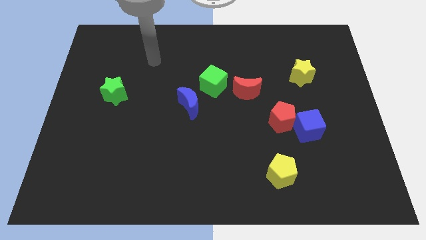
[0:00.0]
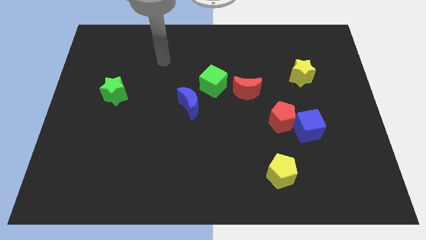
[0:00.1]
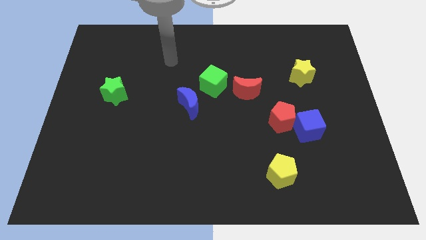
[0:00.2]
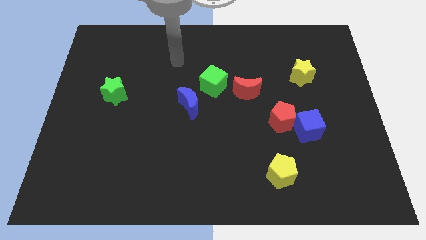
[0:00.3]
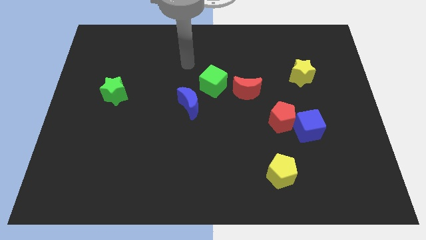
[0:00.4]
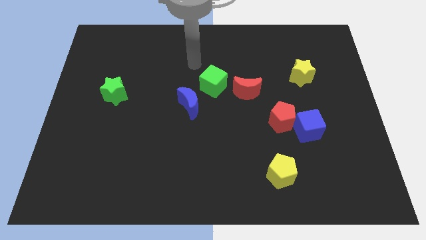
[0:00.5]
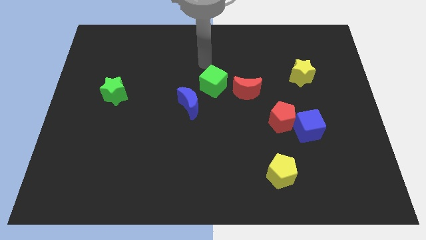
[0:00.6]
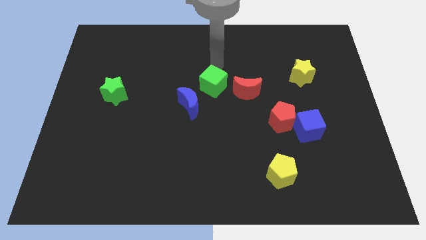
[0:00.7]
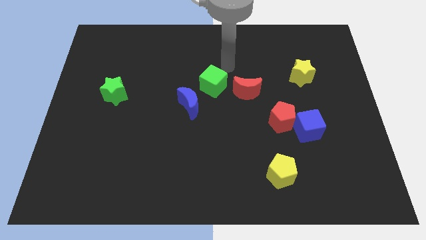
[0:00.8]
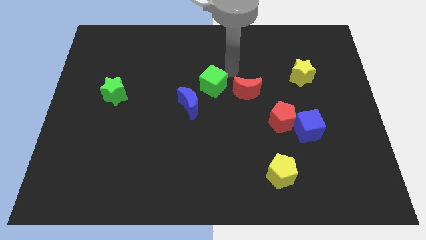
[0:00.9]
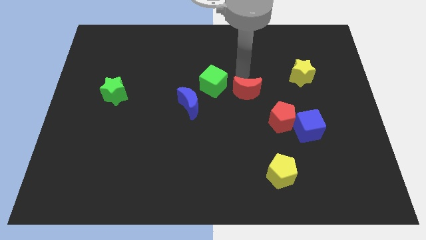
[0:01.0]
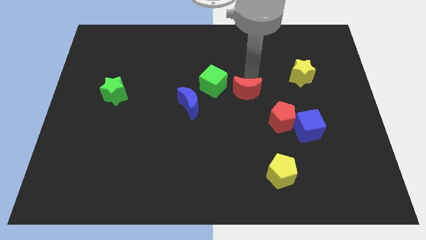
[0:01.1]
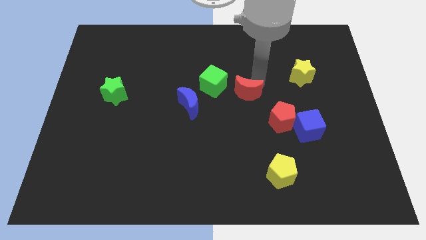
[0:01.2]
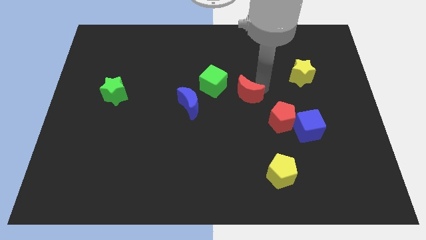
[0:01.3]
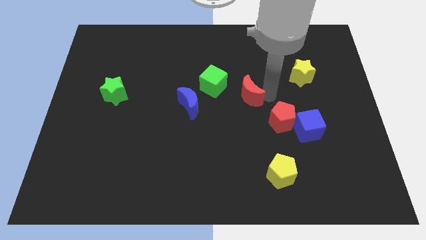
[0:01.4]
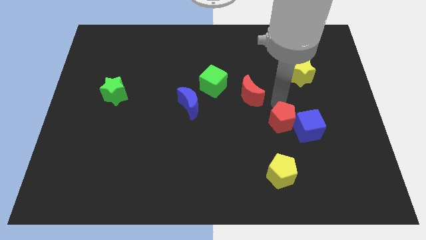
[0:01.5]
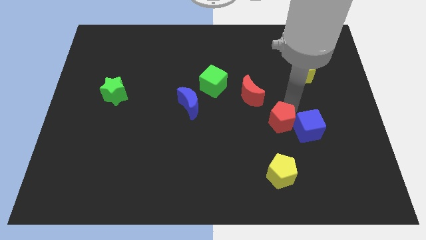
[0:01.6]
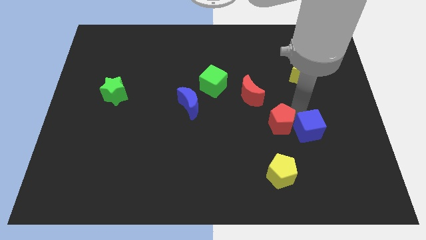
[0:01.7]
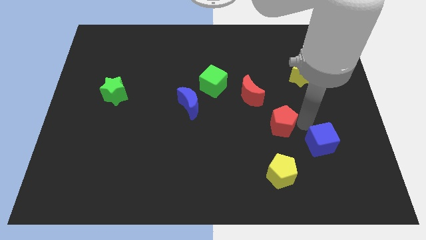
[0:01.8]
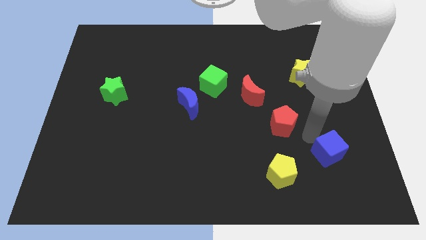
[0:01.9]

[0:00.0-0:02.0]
move the red pentagon away from the blue cube

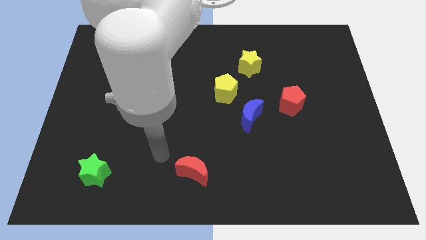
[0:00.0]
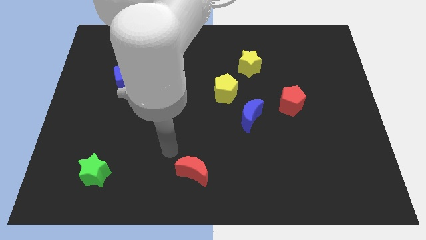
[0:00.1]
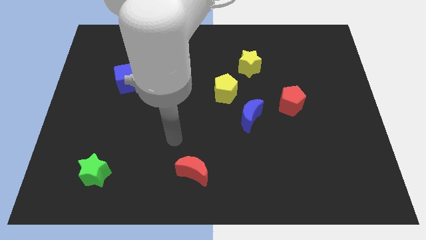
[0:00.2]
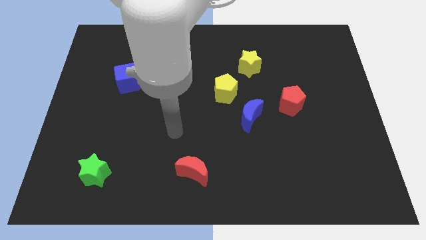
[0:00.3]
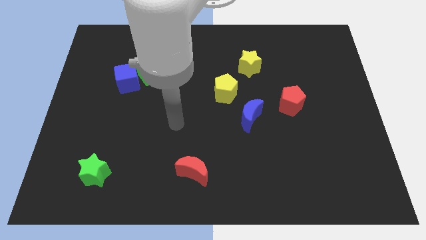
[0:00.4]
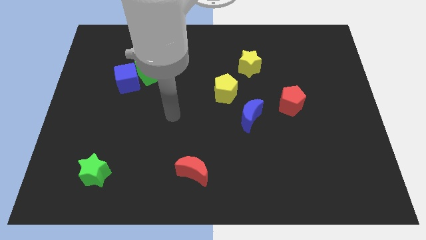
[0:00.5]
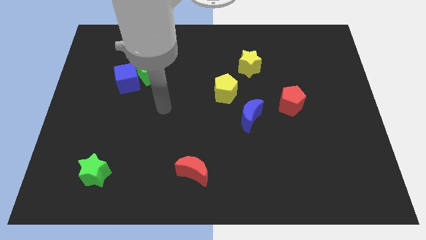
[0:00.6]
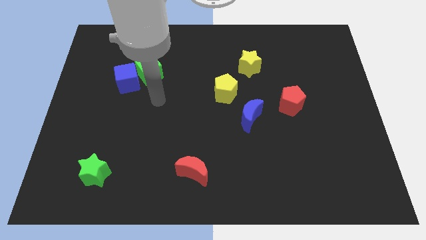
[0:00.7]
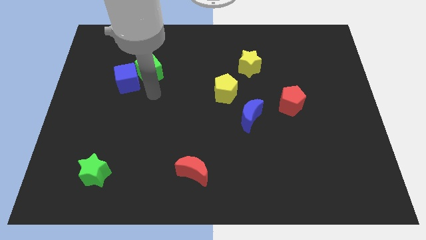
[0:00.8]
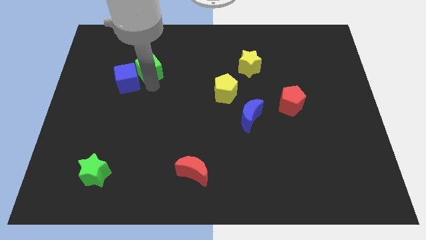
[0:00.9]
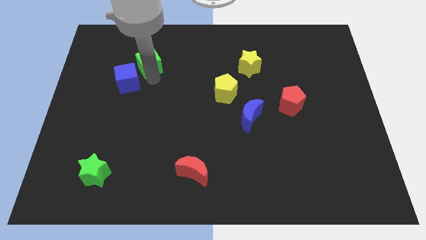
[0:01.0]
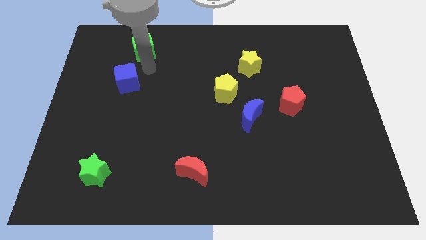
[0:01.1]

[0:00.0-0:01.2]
separate the blue cube from the green cube

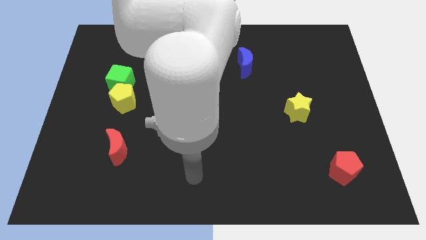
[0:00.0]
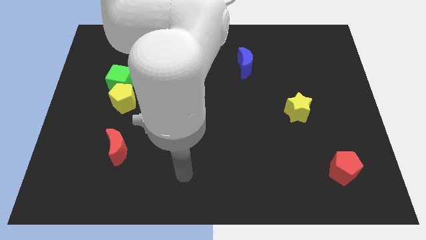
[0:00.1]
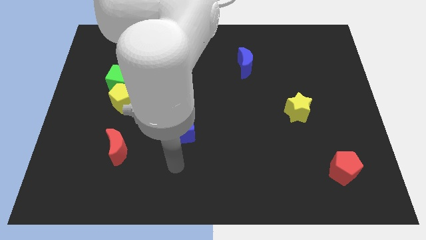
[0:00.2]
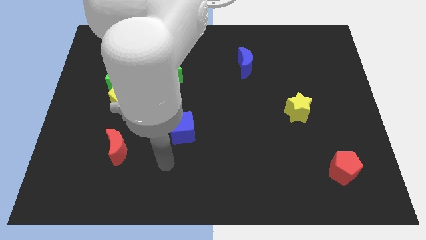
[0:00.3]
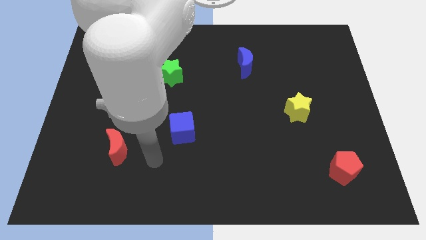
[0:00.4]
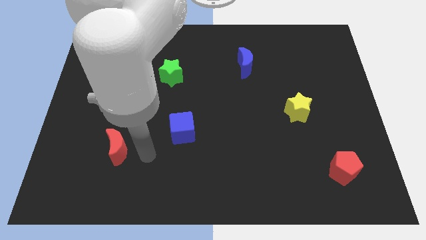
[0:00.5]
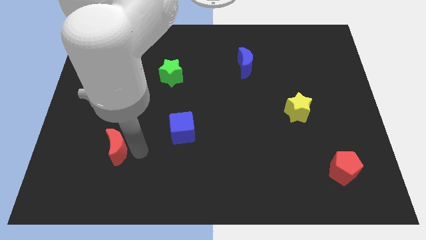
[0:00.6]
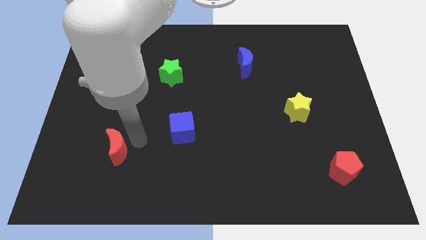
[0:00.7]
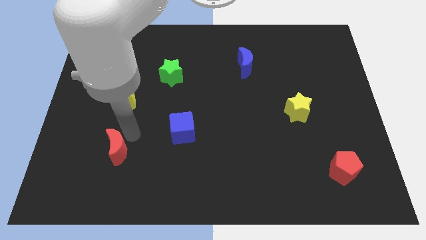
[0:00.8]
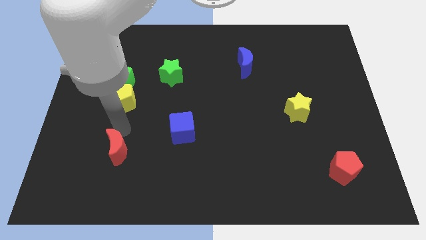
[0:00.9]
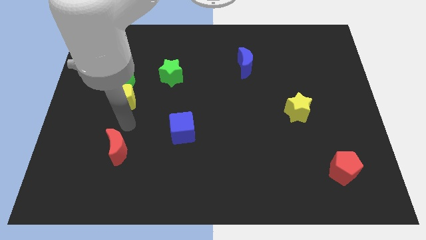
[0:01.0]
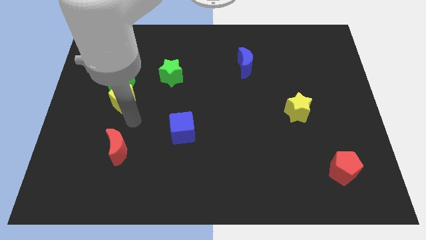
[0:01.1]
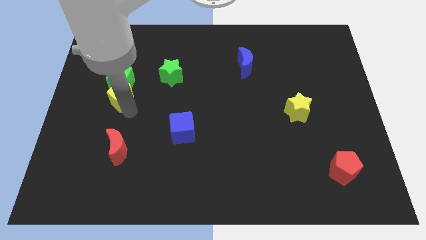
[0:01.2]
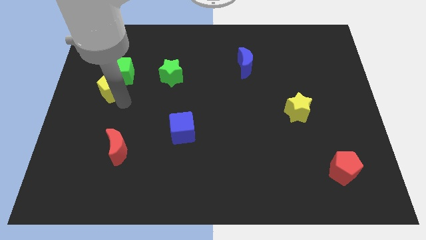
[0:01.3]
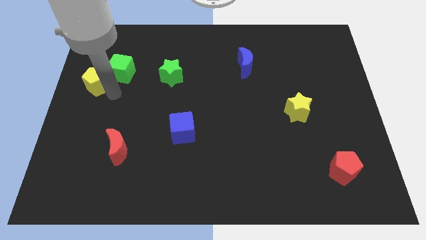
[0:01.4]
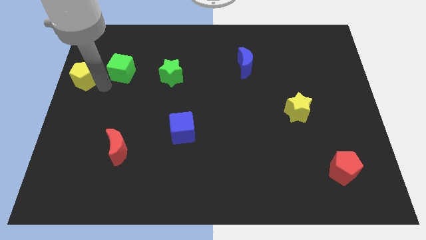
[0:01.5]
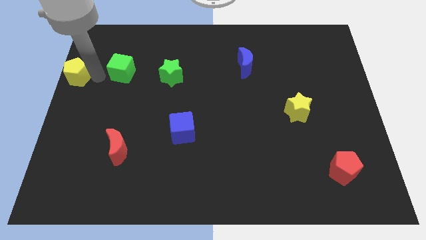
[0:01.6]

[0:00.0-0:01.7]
move the green cube away from the yellow pentagon

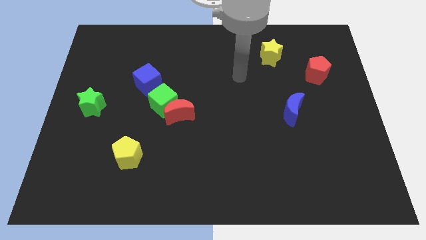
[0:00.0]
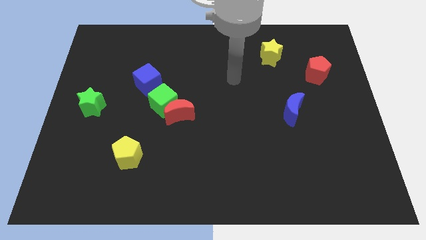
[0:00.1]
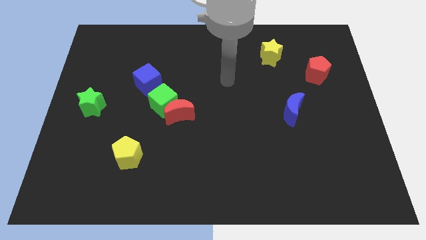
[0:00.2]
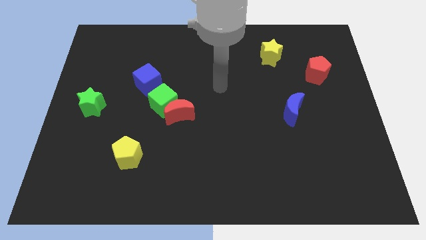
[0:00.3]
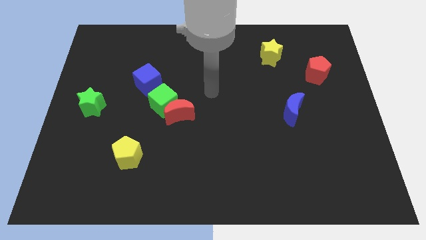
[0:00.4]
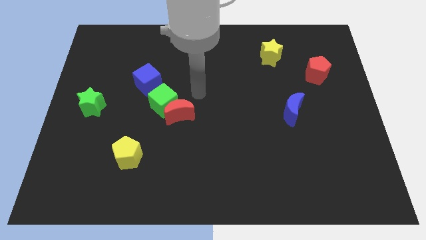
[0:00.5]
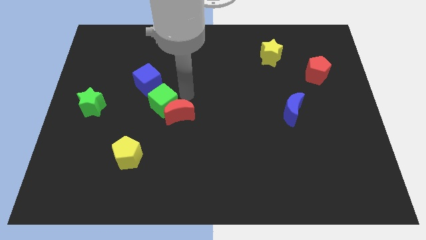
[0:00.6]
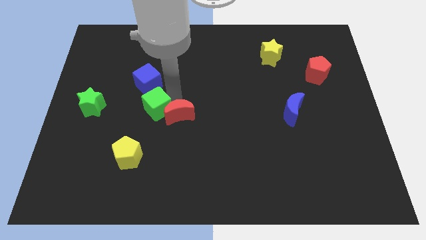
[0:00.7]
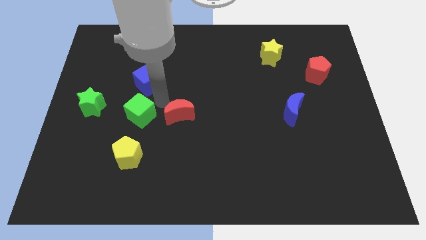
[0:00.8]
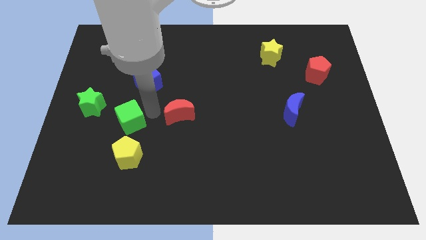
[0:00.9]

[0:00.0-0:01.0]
pull the red moon apart from the green cube

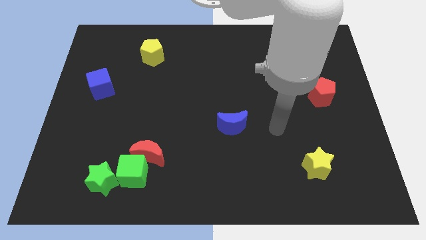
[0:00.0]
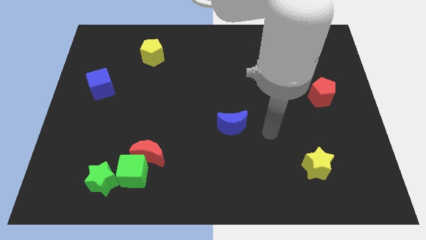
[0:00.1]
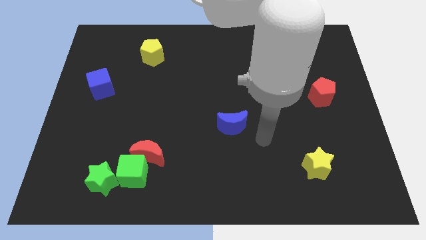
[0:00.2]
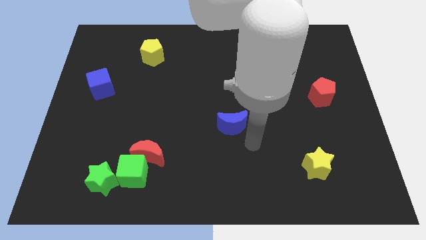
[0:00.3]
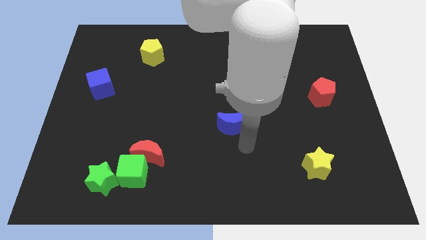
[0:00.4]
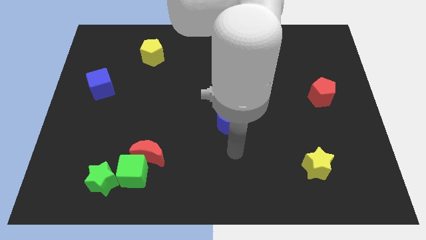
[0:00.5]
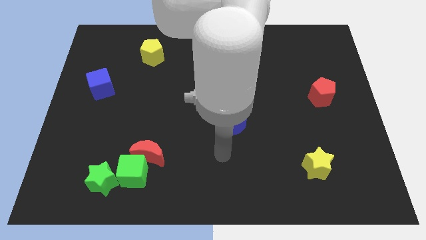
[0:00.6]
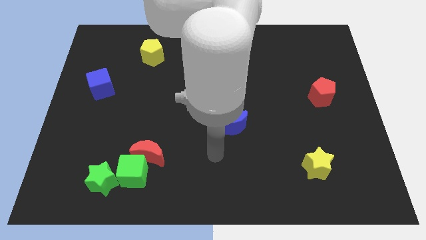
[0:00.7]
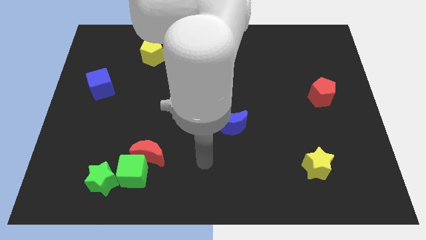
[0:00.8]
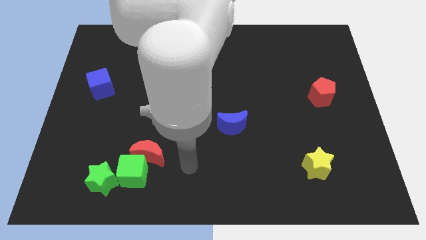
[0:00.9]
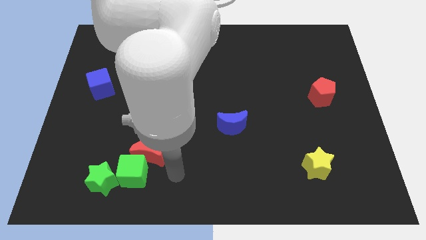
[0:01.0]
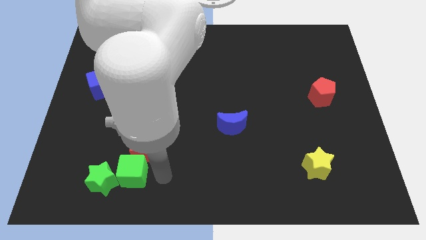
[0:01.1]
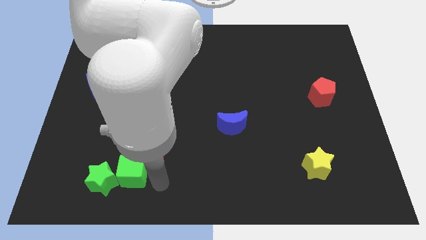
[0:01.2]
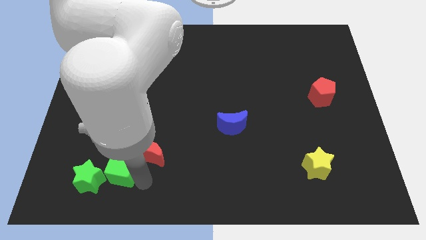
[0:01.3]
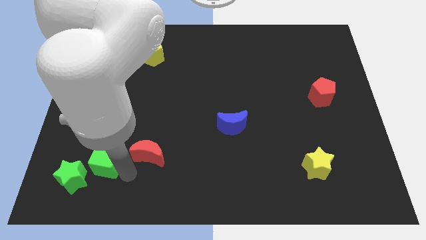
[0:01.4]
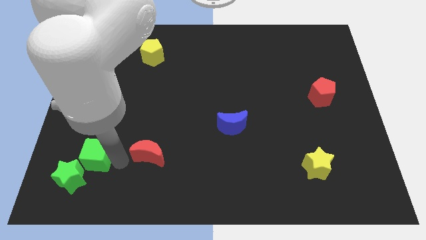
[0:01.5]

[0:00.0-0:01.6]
separate the red moon from the green cube

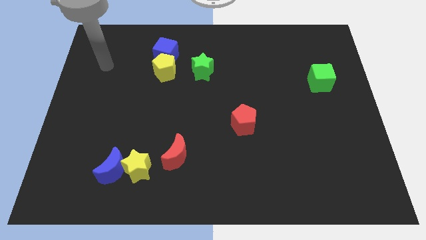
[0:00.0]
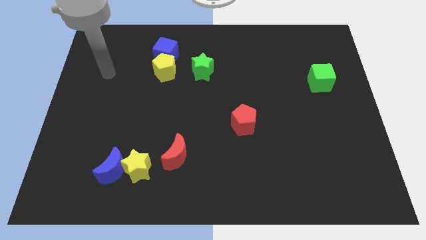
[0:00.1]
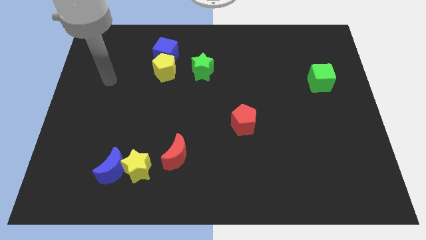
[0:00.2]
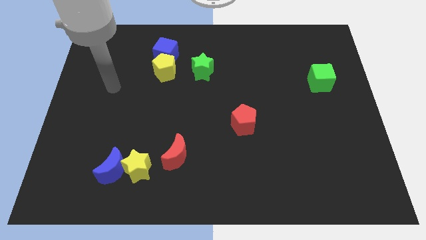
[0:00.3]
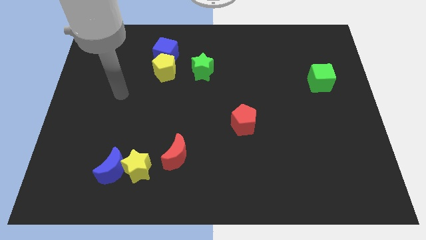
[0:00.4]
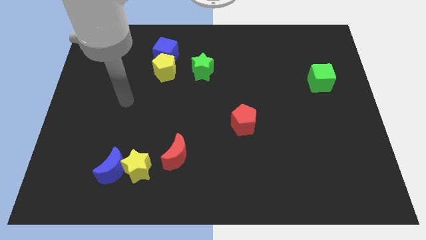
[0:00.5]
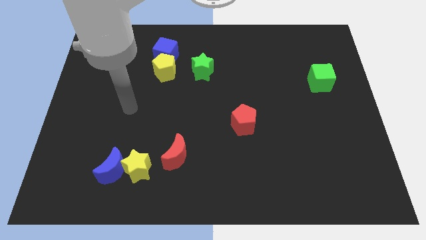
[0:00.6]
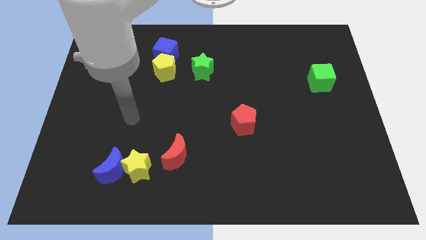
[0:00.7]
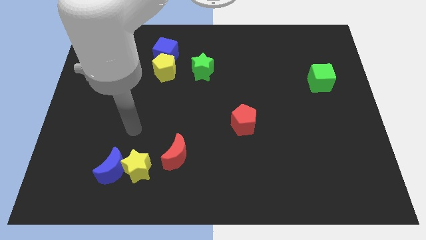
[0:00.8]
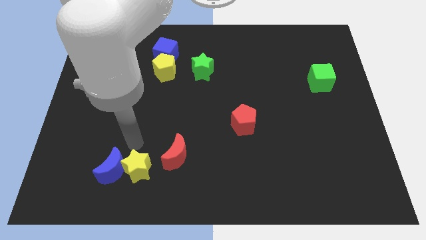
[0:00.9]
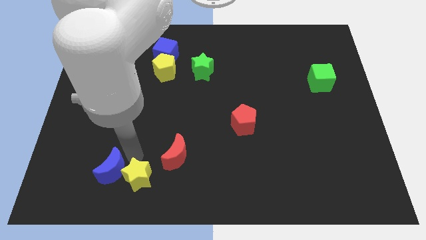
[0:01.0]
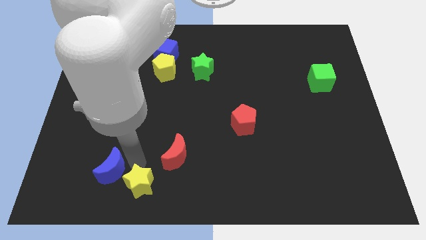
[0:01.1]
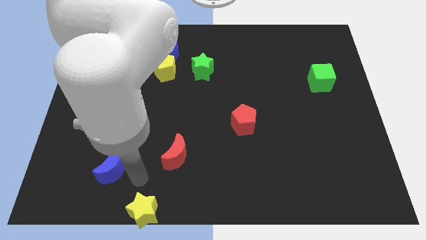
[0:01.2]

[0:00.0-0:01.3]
separate the blue moon from the yellow star

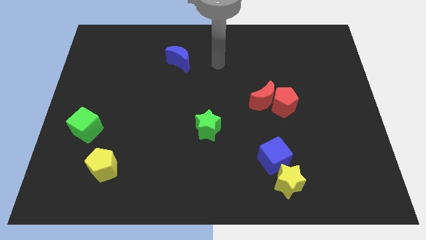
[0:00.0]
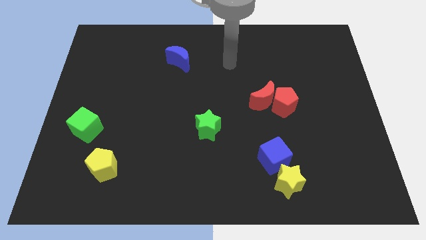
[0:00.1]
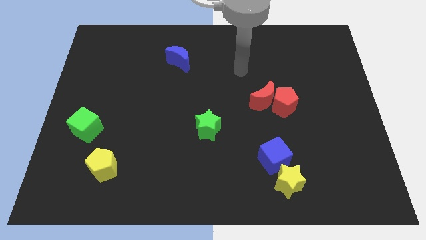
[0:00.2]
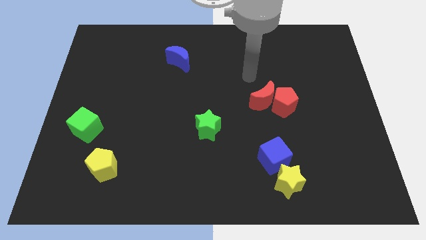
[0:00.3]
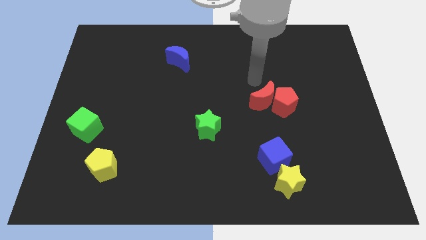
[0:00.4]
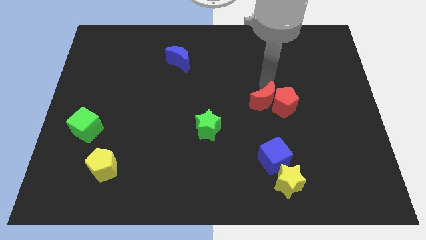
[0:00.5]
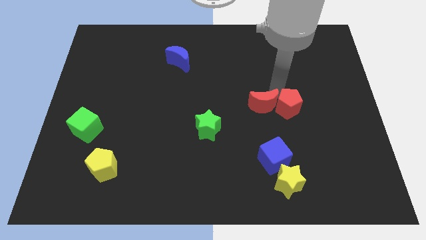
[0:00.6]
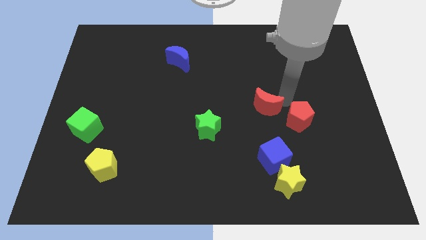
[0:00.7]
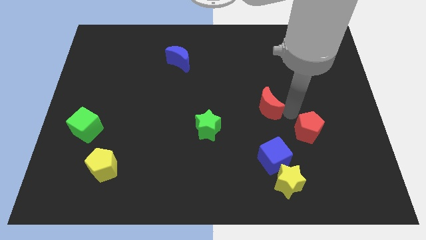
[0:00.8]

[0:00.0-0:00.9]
move the red moon away from the red pentagon
